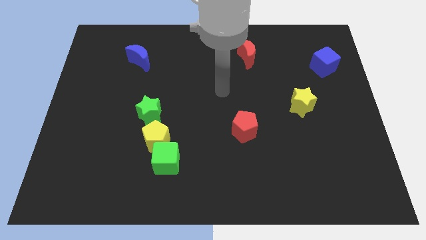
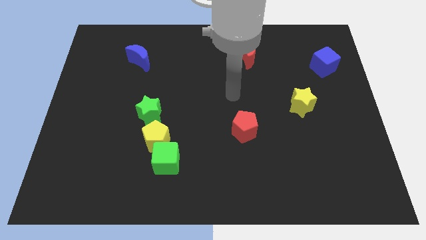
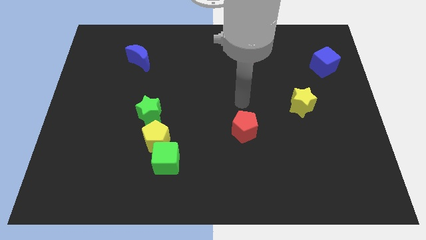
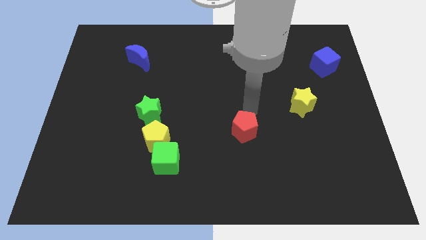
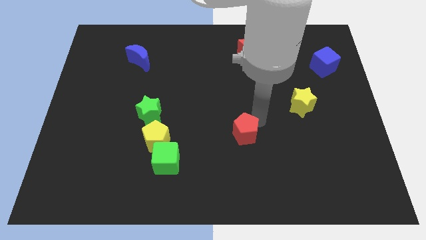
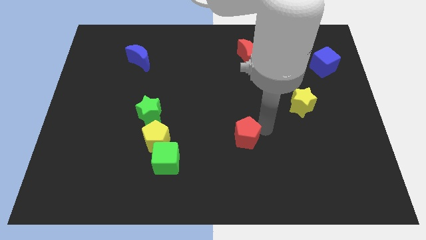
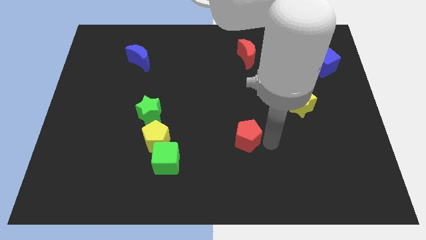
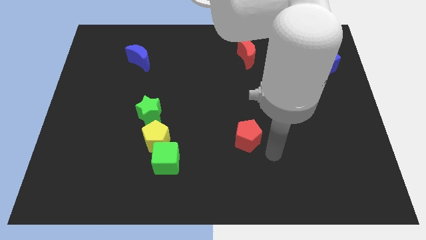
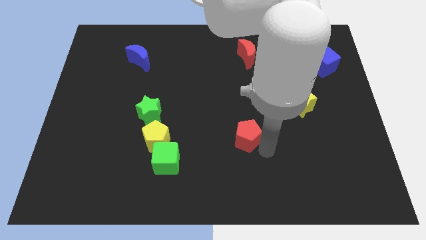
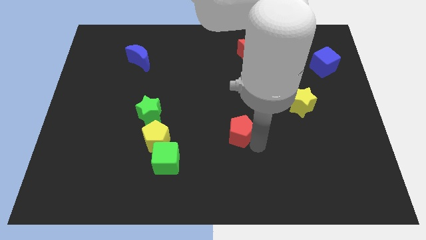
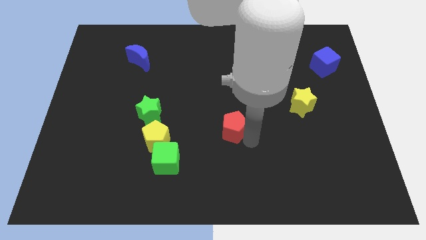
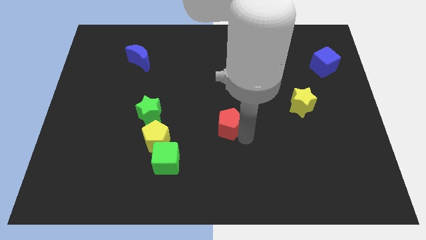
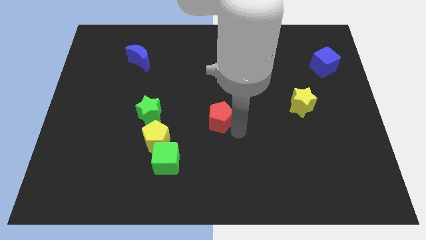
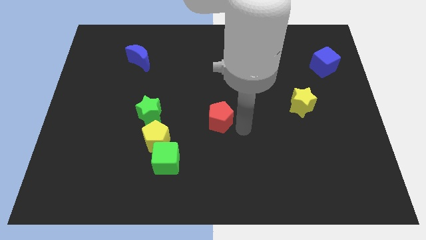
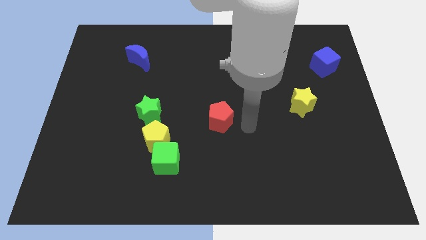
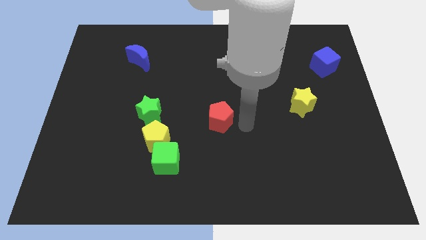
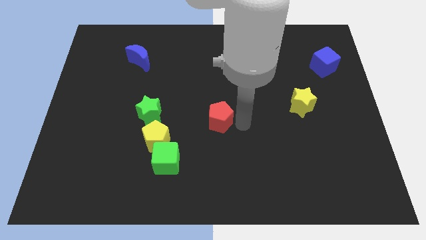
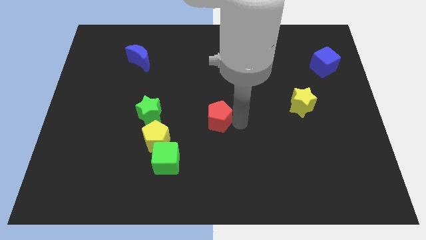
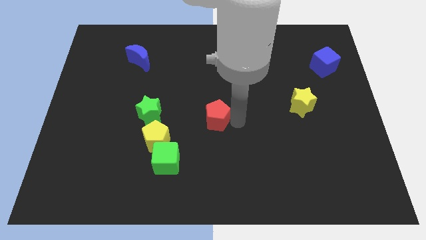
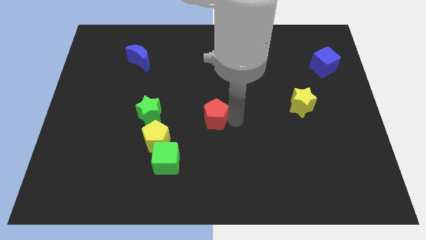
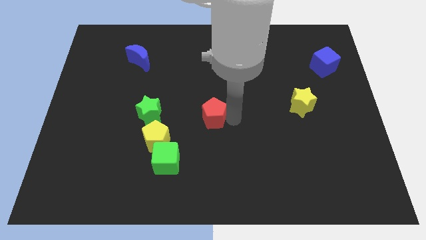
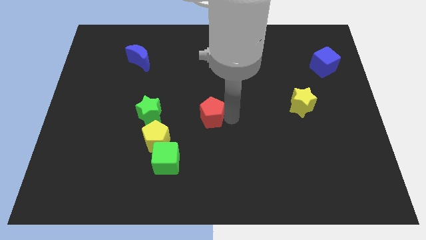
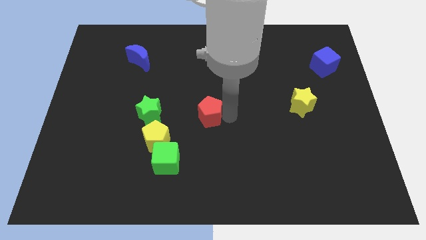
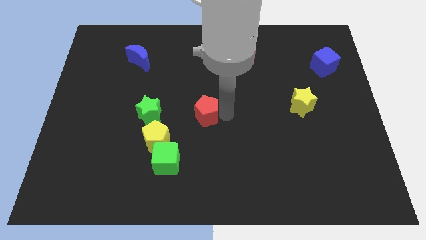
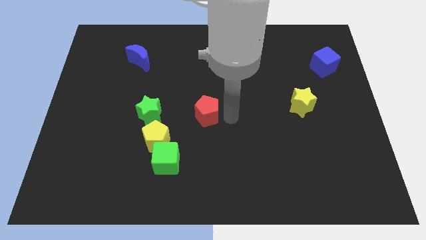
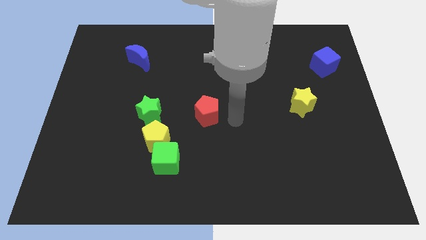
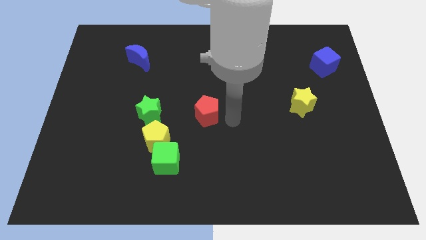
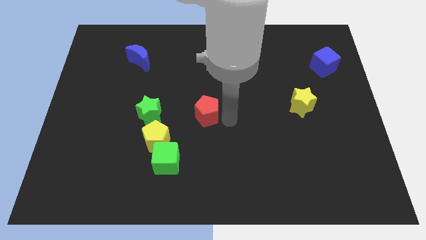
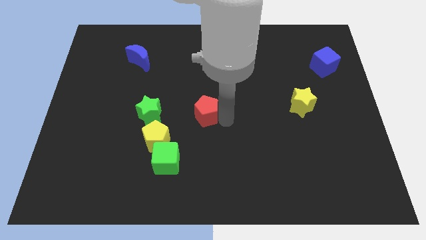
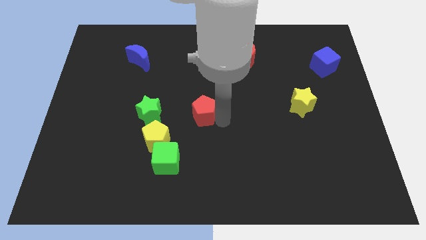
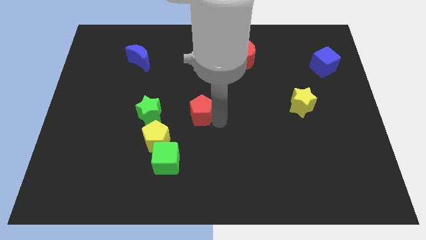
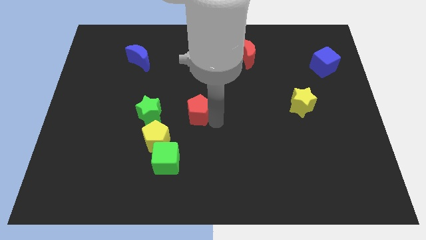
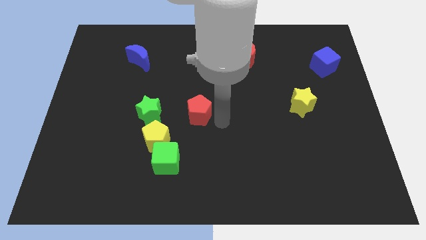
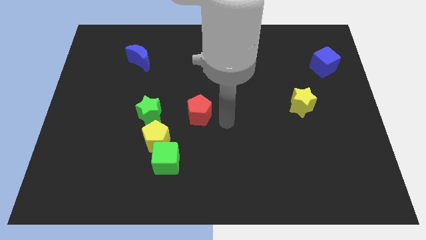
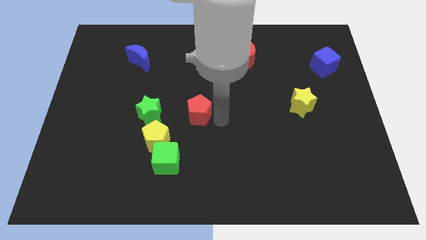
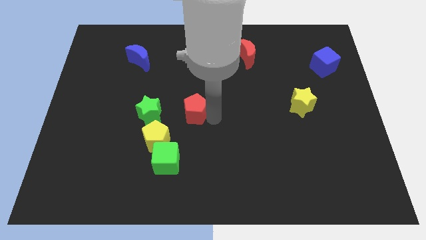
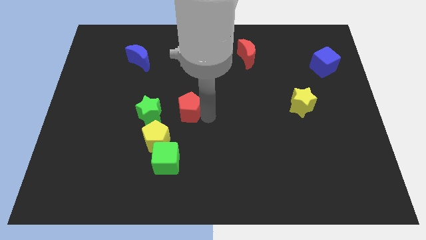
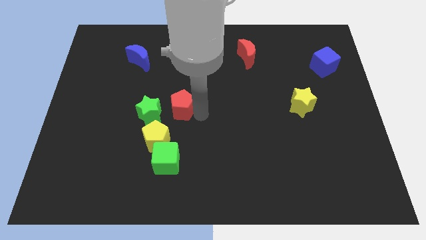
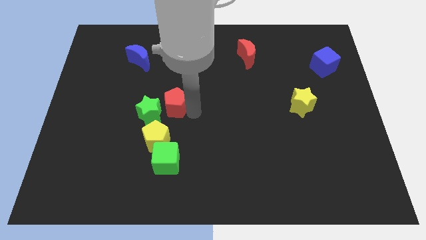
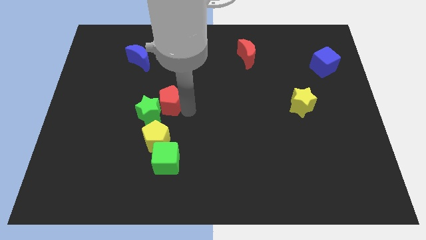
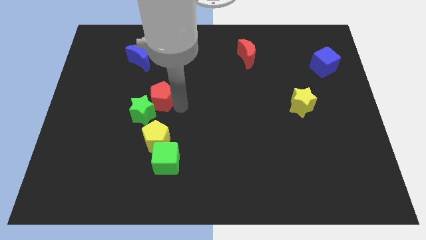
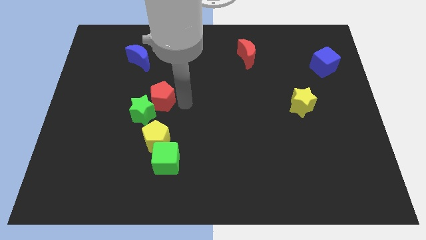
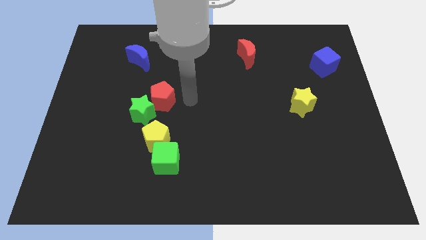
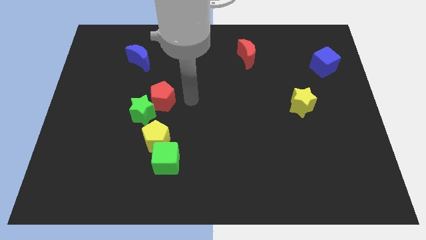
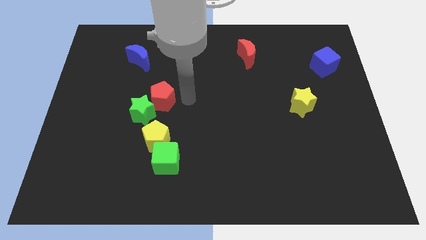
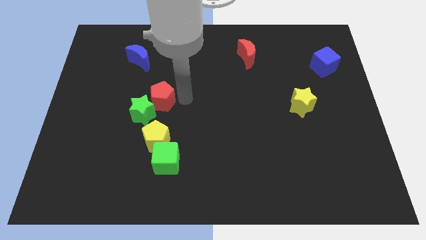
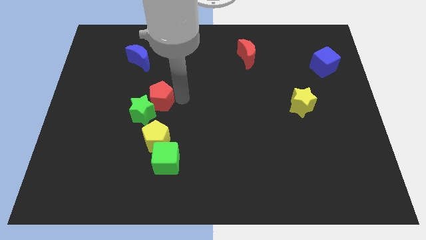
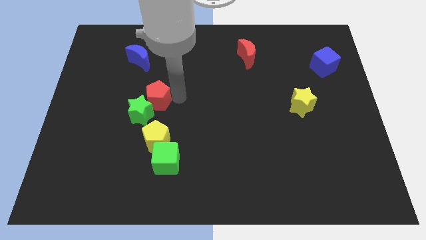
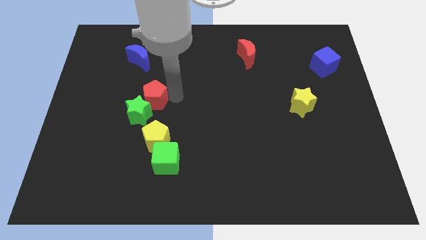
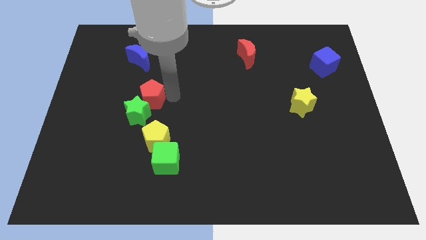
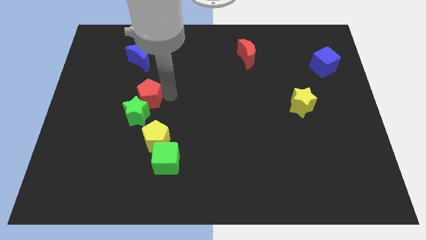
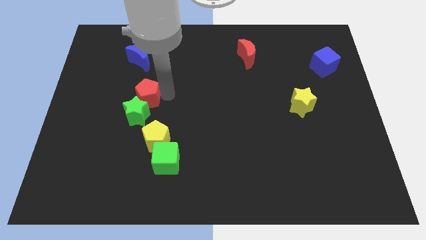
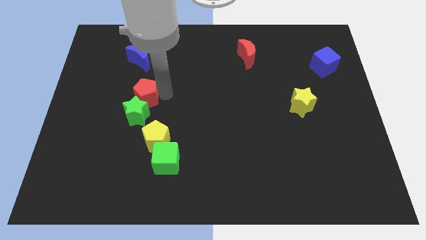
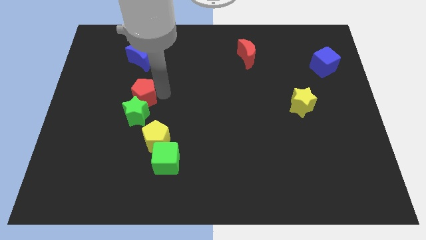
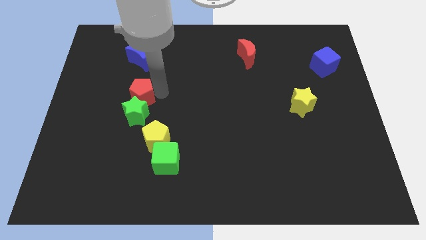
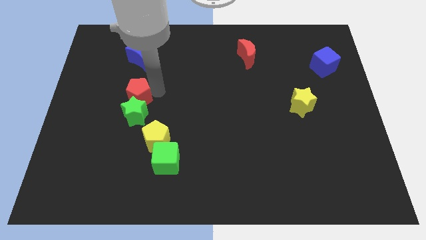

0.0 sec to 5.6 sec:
slide the red pentagon to the left

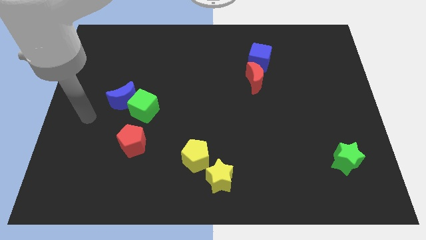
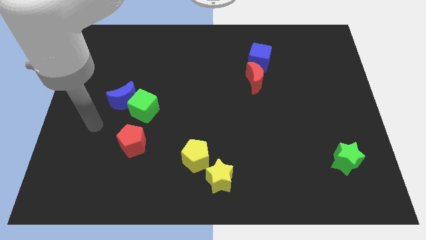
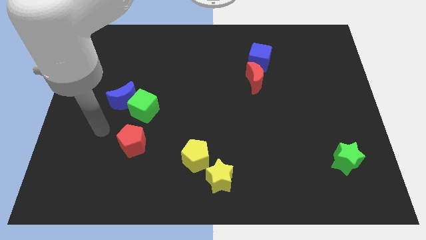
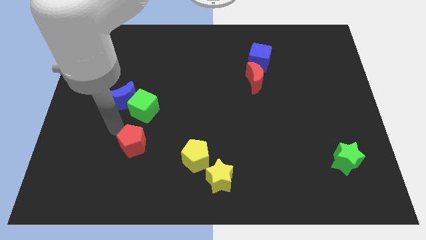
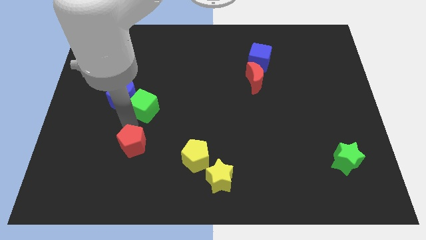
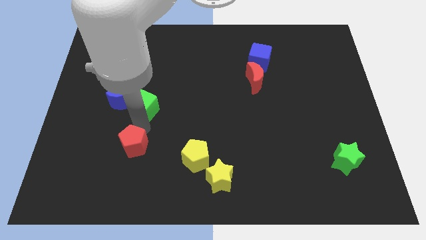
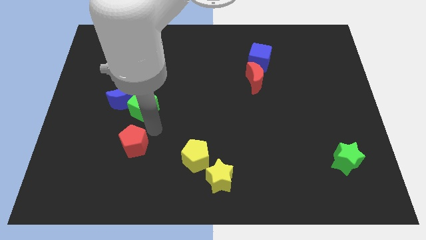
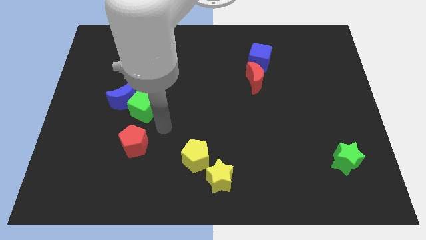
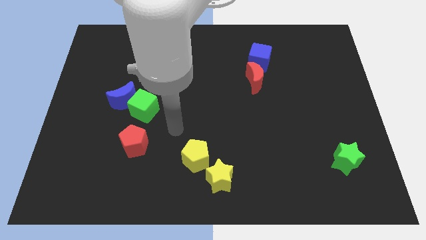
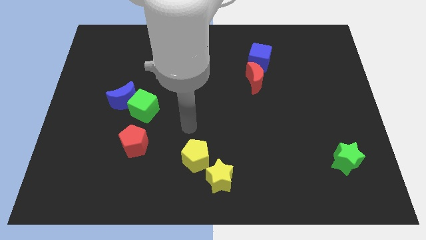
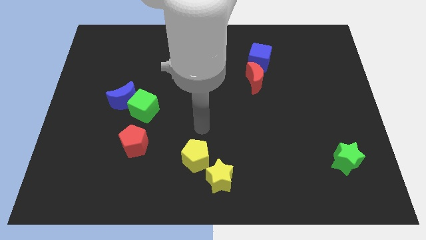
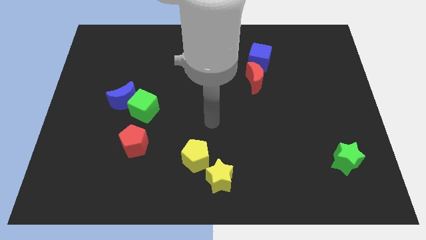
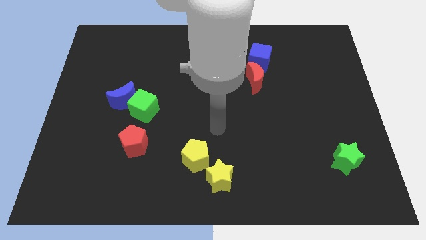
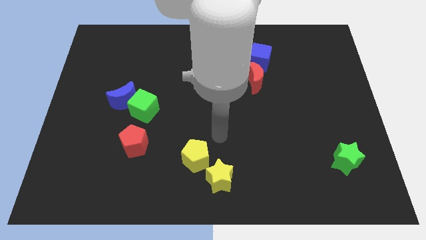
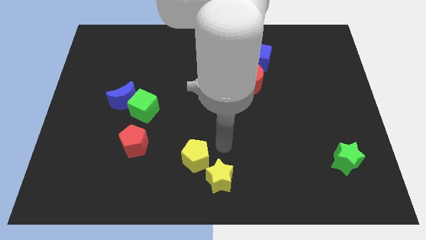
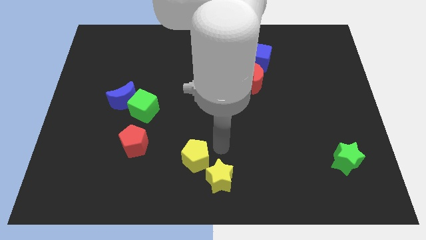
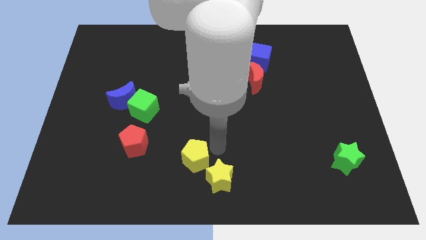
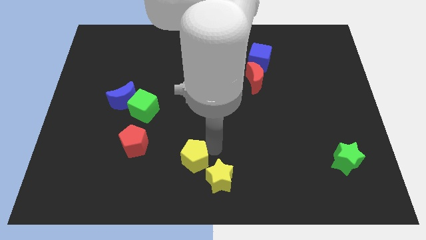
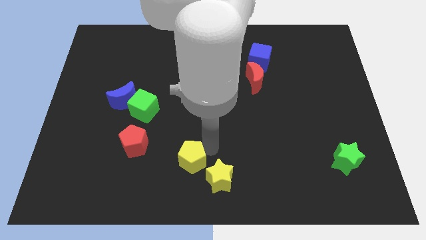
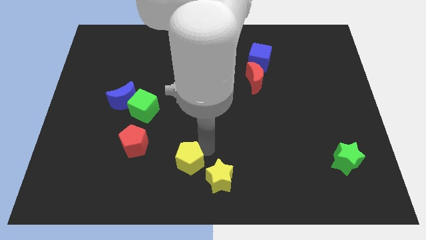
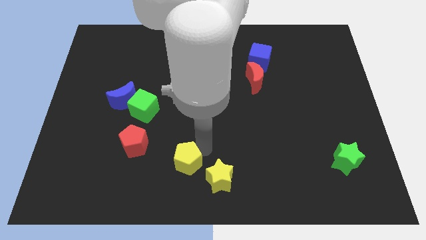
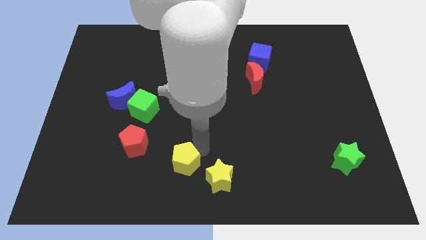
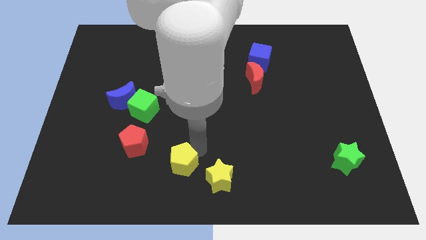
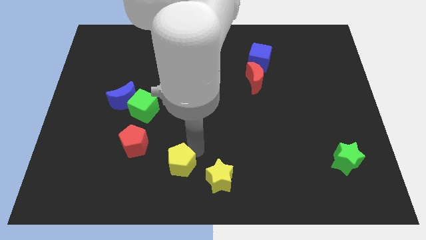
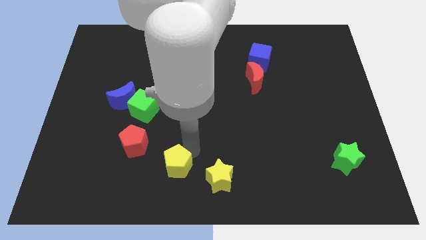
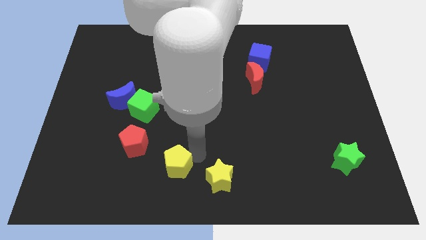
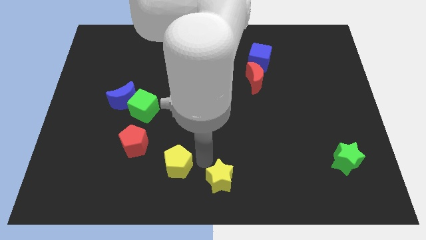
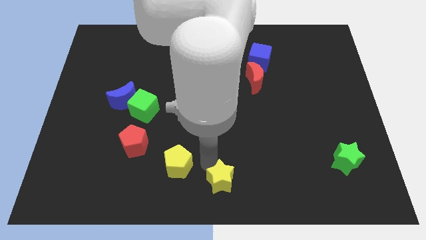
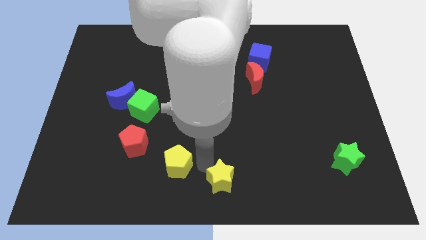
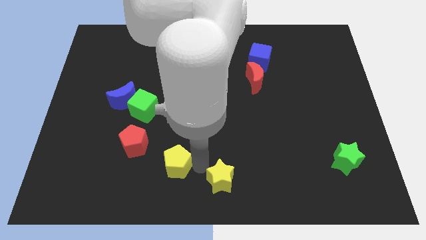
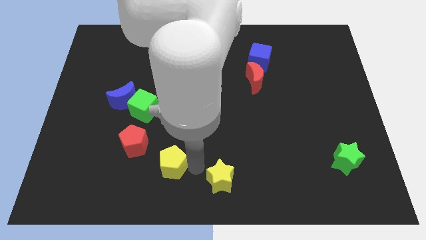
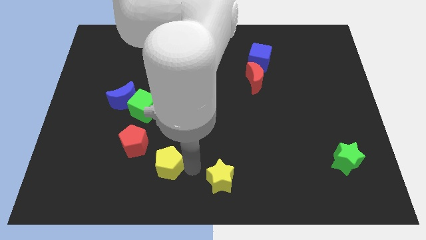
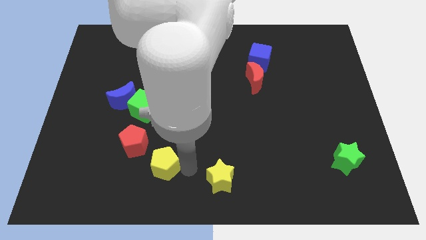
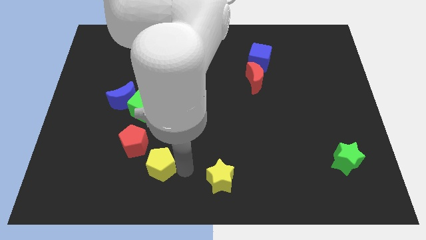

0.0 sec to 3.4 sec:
move the yellow pentagon to the left slightly
